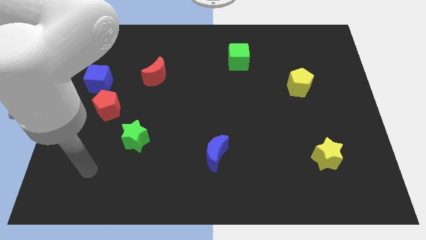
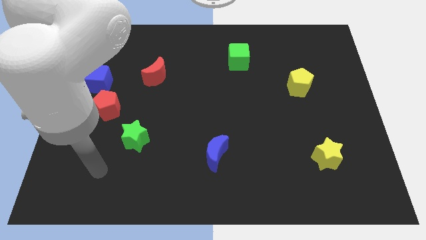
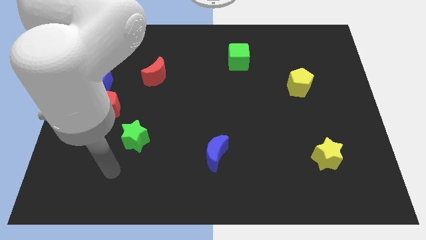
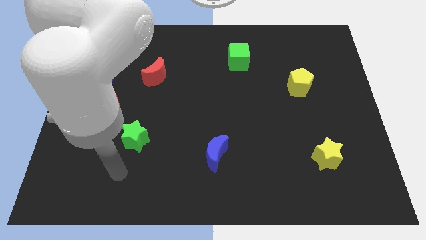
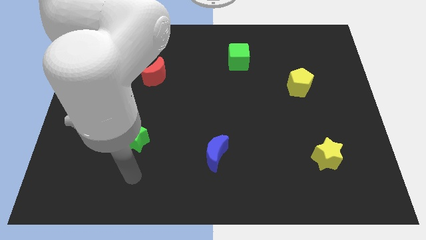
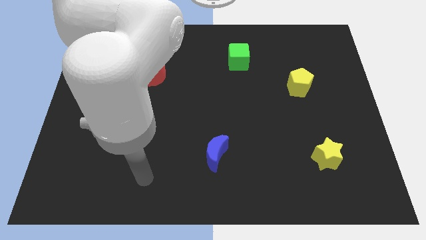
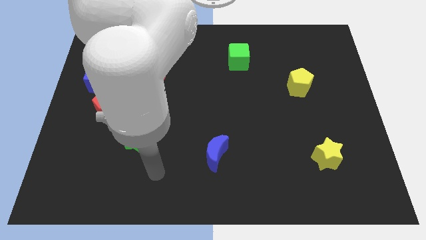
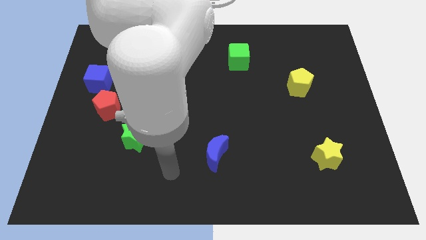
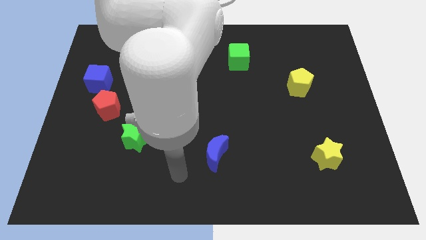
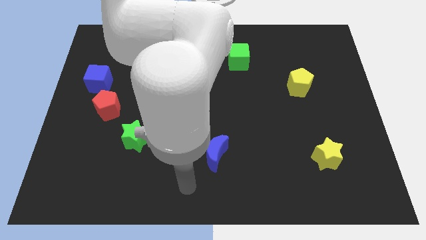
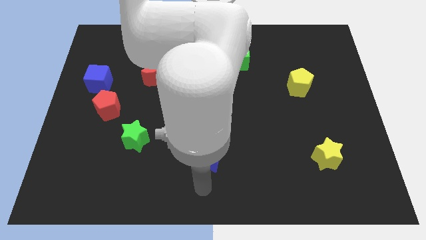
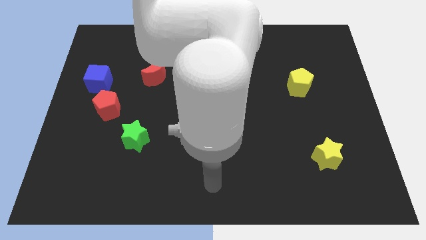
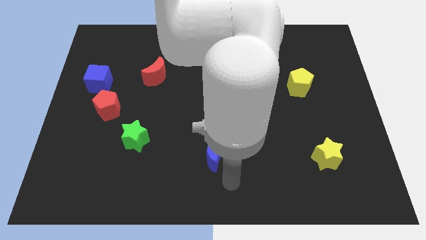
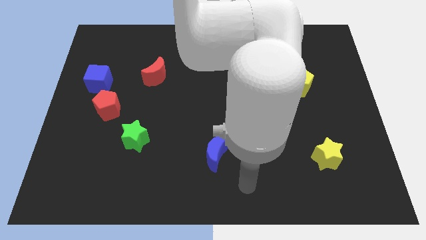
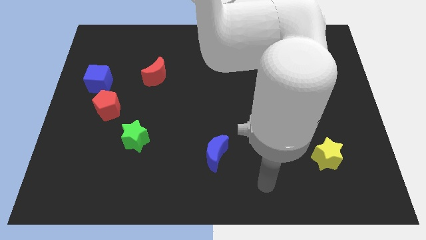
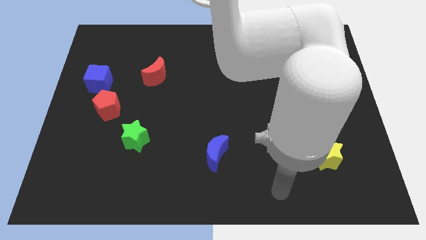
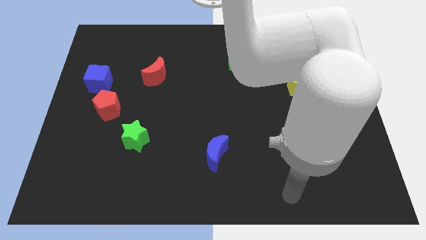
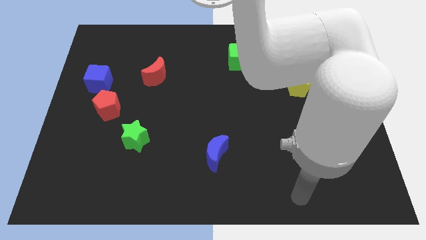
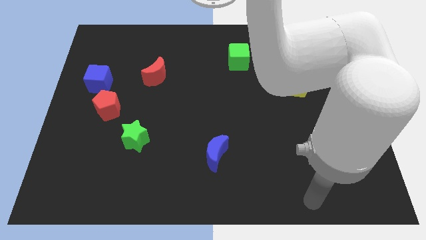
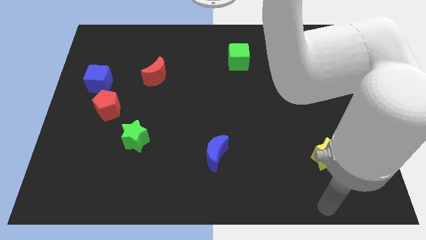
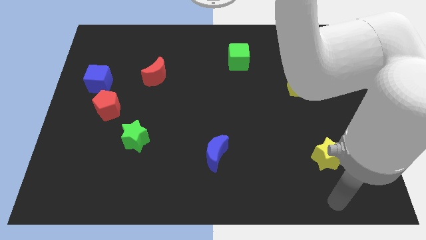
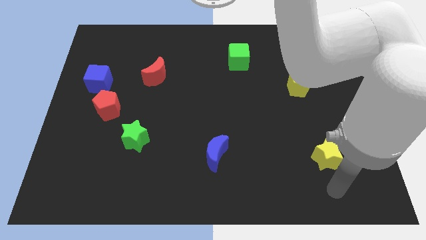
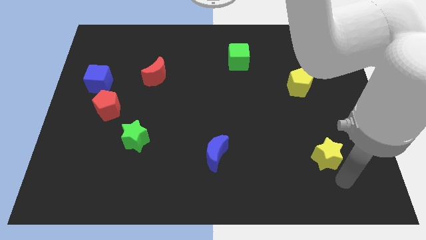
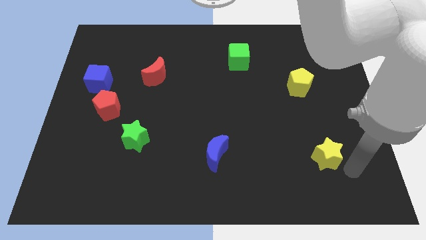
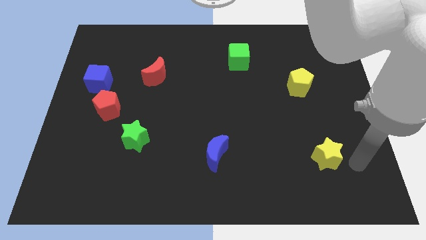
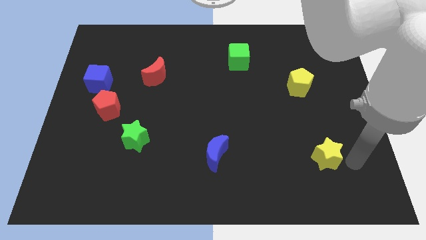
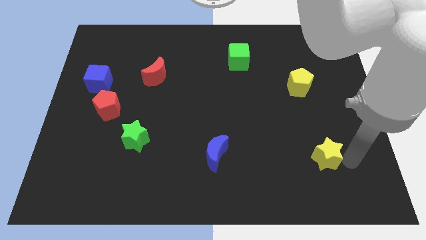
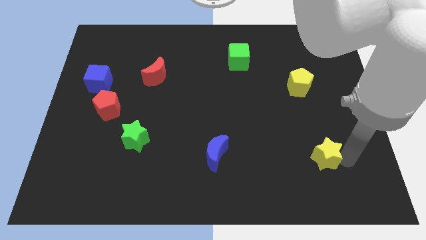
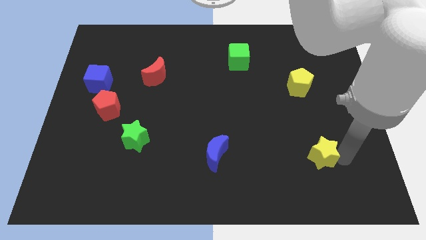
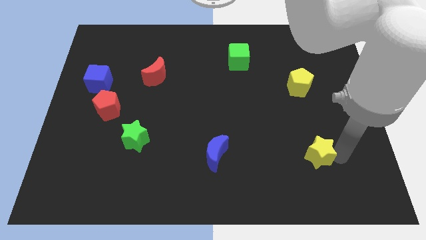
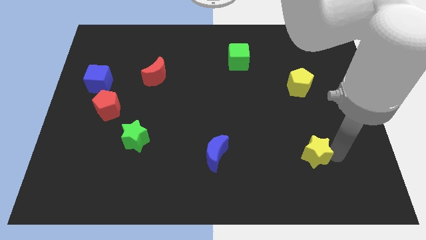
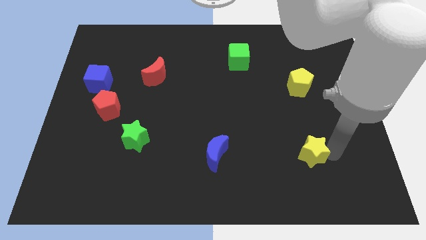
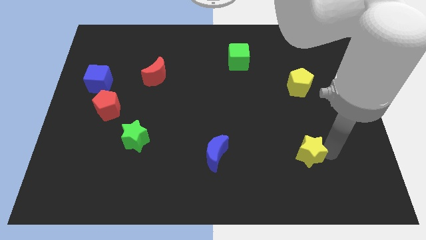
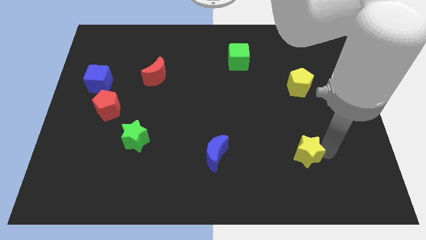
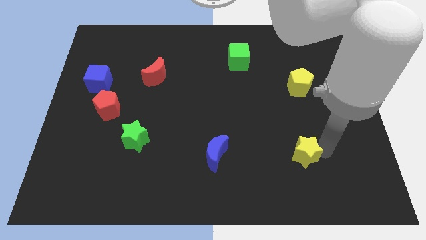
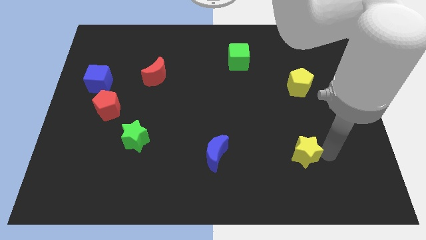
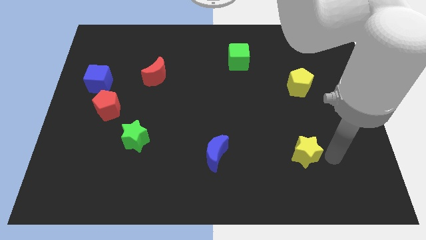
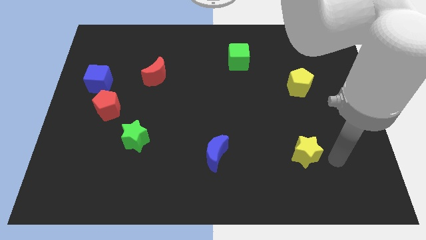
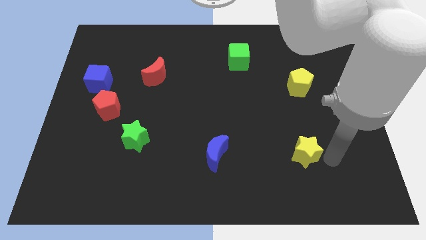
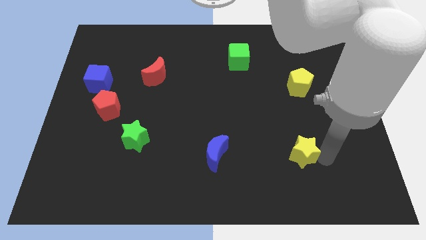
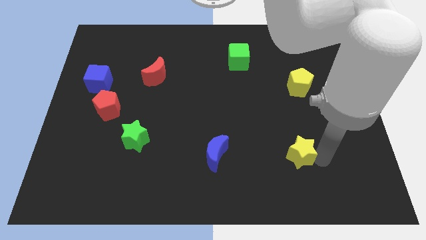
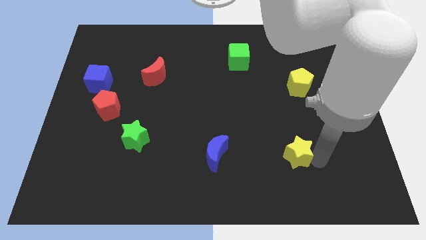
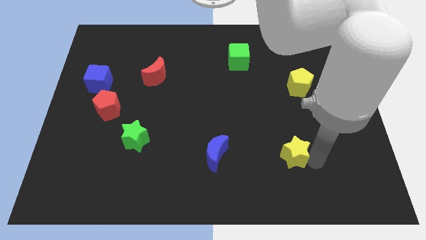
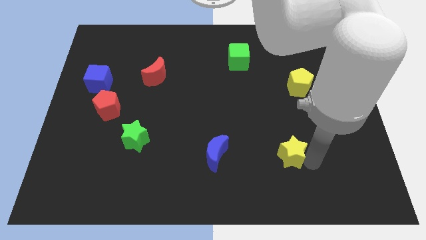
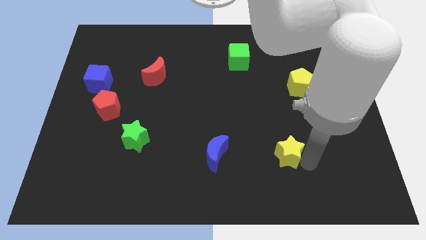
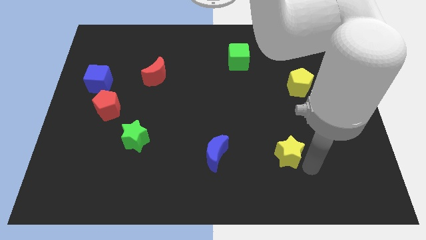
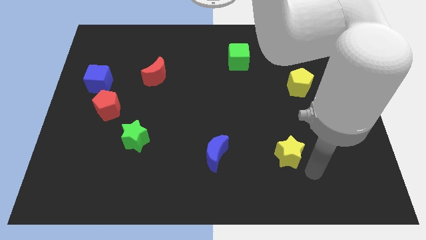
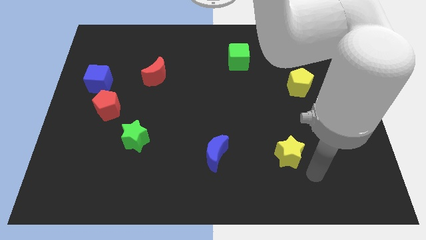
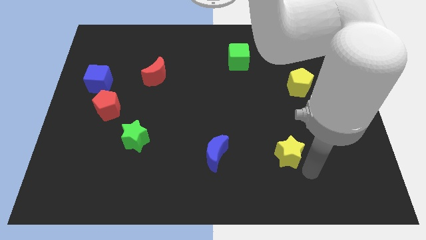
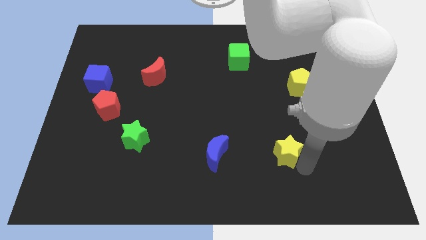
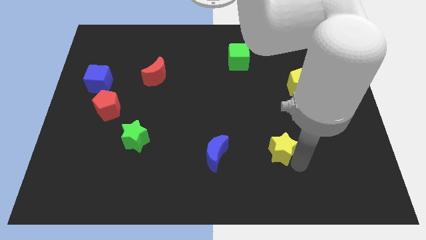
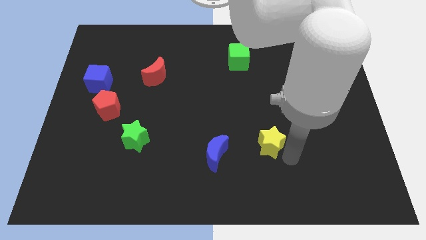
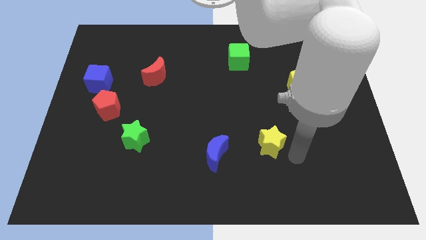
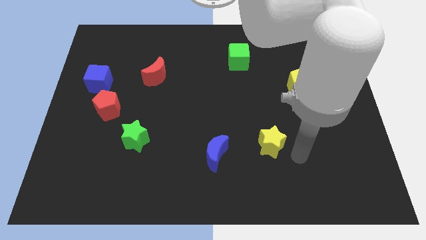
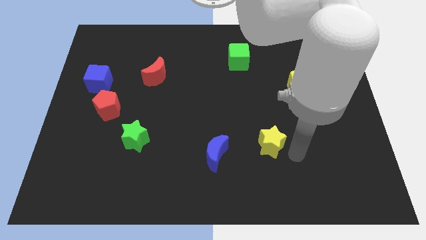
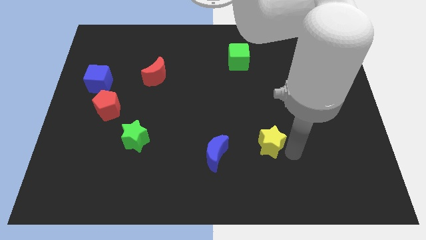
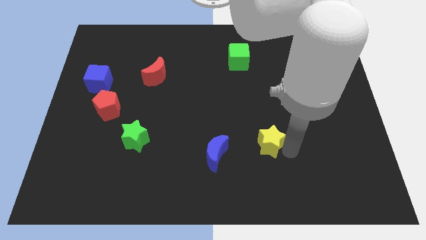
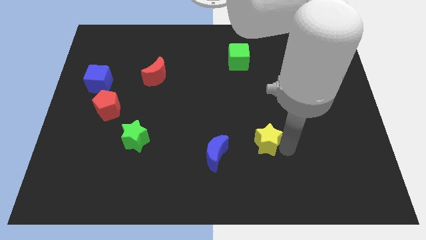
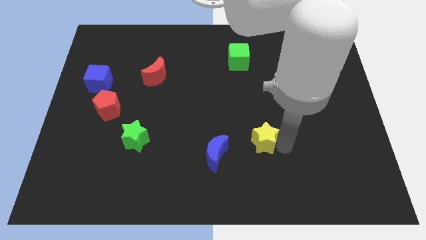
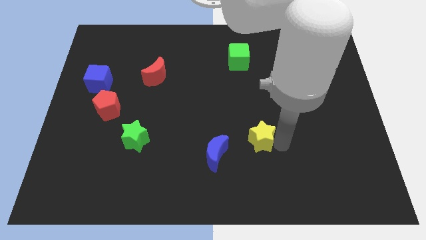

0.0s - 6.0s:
move the yellow star to the top right of the blue moon

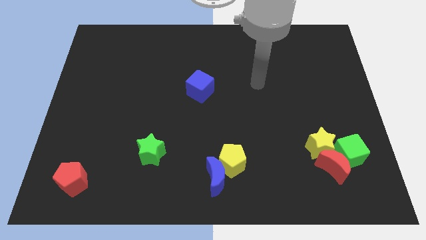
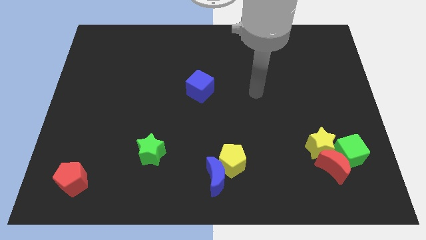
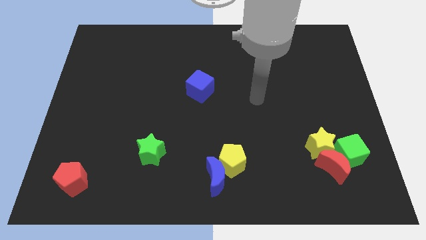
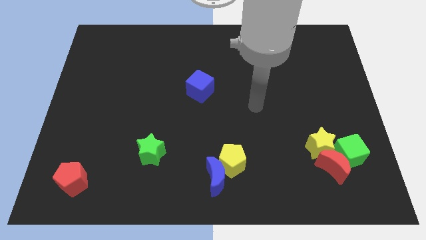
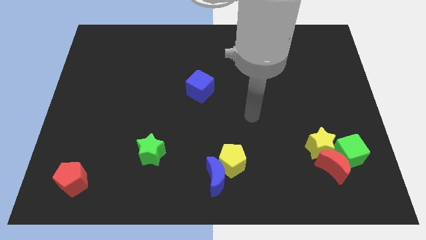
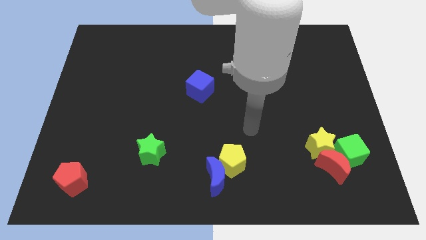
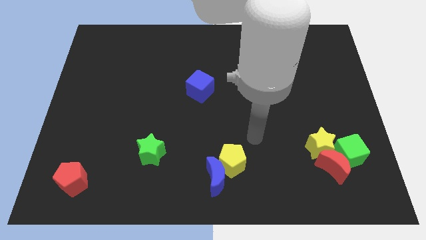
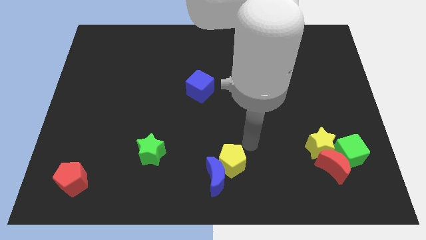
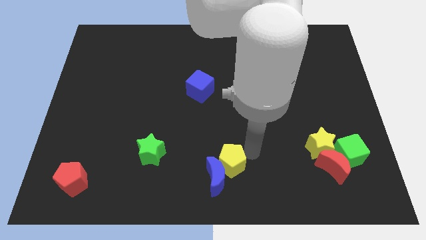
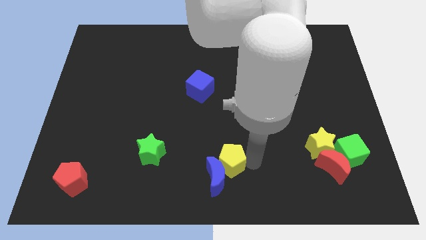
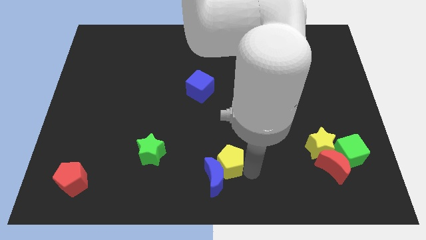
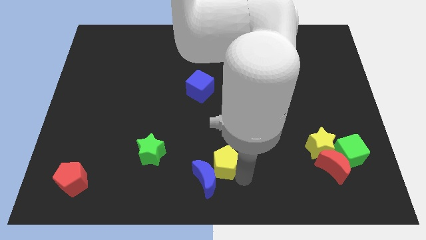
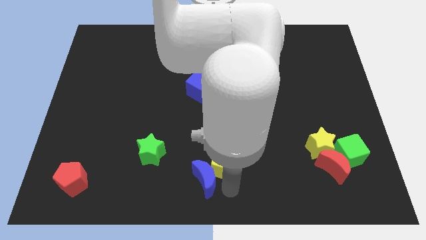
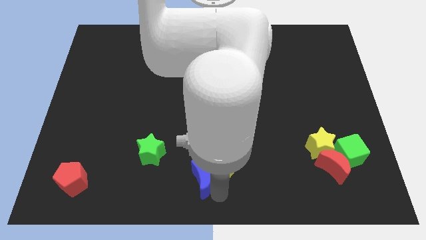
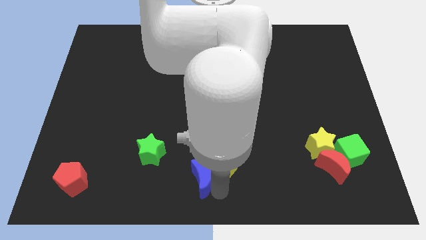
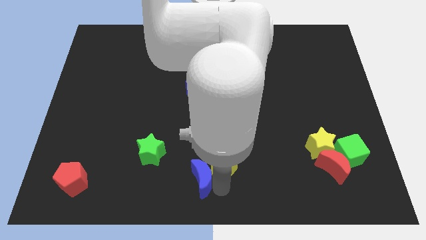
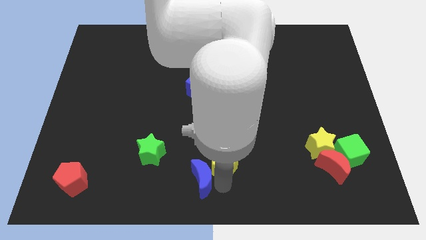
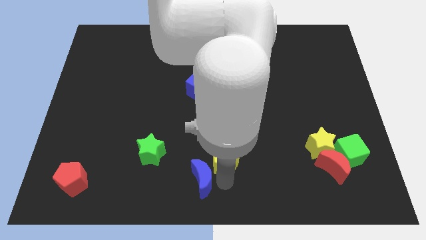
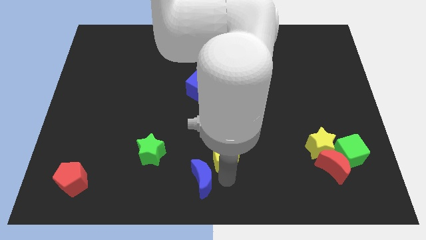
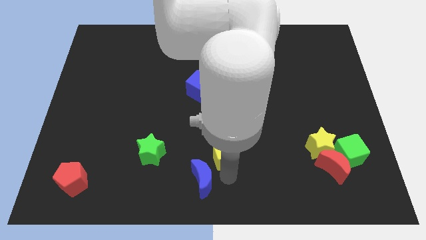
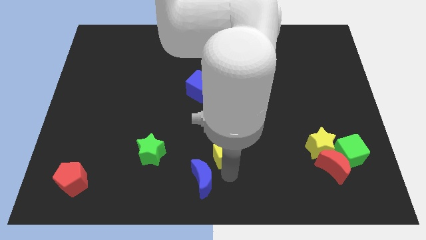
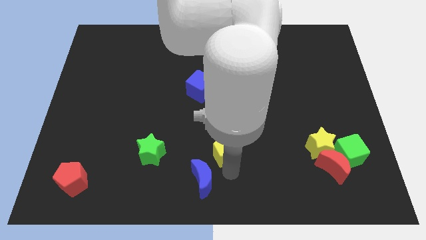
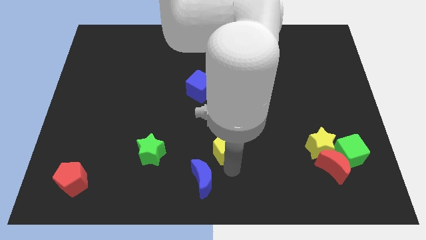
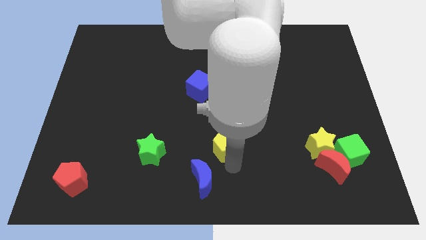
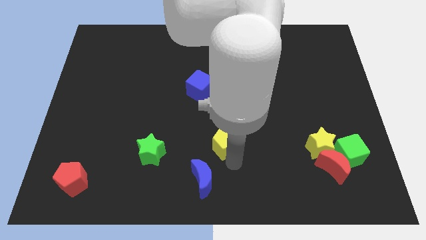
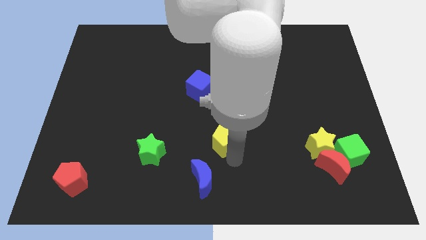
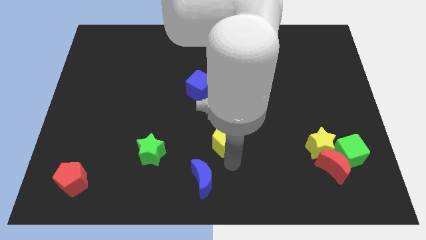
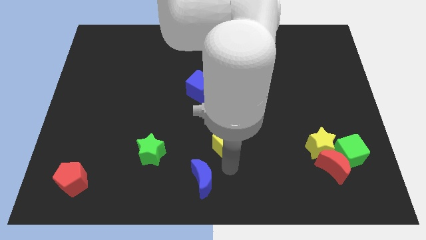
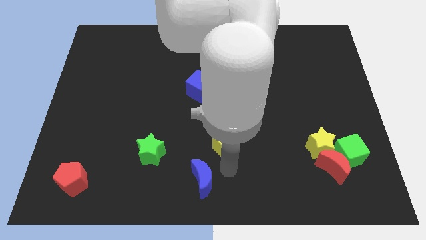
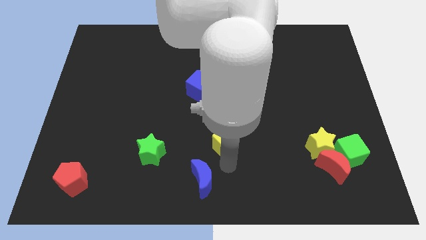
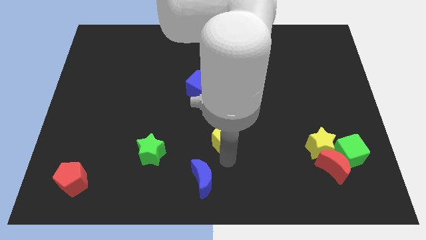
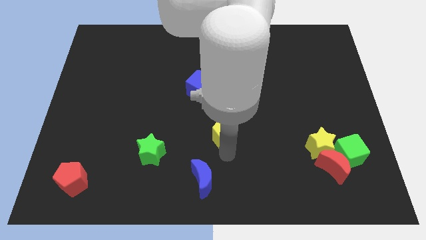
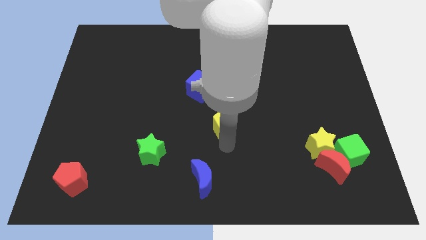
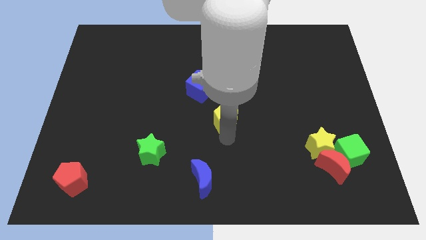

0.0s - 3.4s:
put the yellow pentagon to the bottom right side of the blue cube
